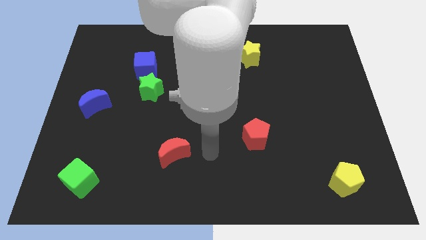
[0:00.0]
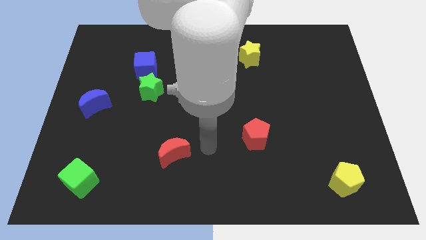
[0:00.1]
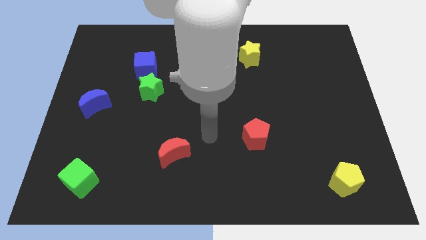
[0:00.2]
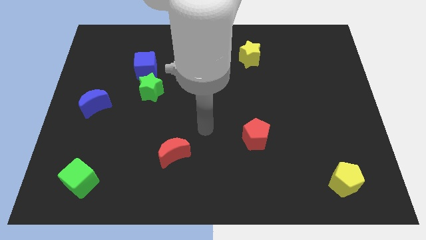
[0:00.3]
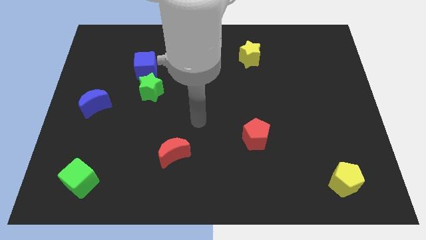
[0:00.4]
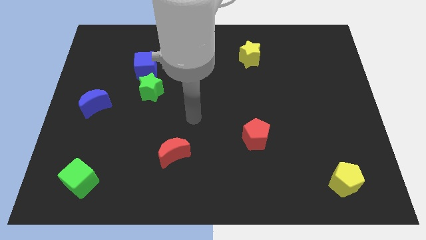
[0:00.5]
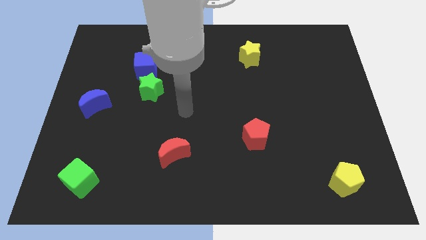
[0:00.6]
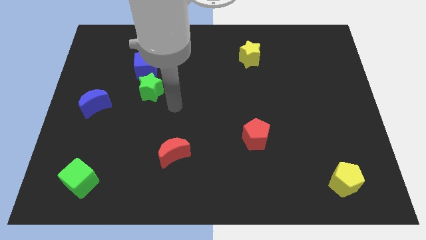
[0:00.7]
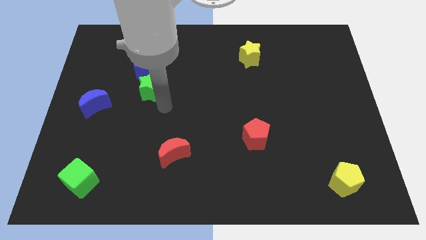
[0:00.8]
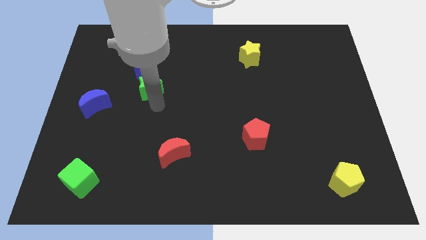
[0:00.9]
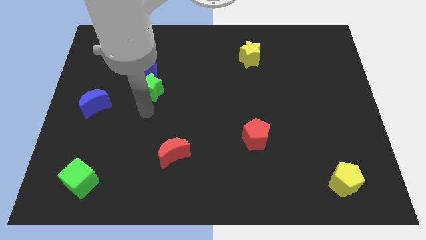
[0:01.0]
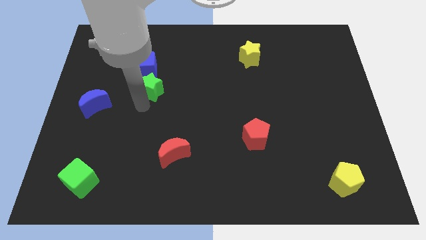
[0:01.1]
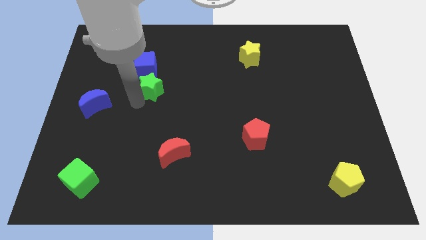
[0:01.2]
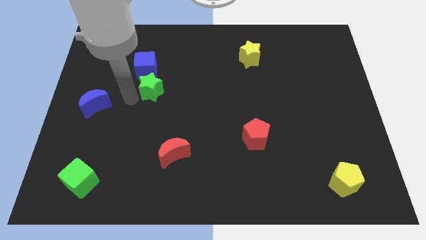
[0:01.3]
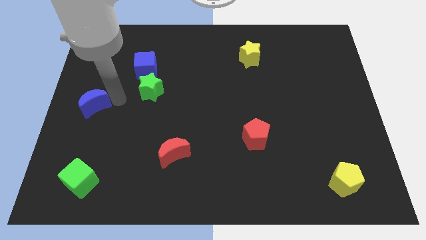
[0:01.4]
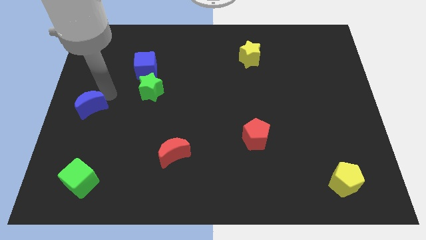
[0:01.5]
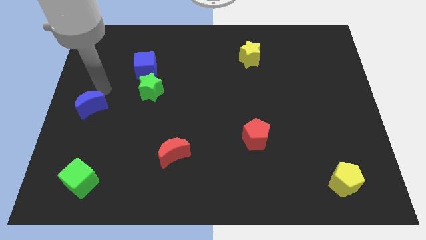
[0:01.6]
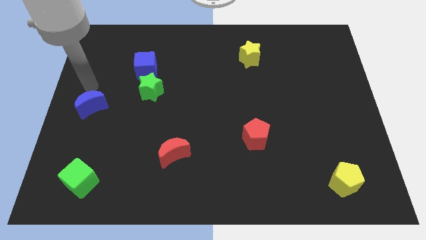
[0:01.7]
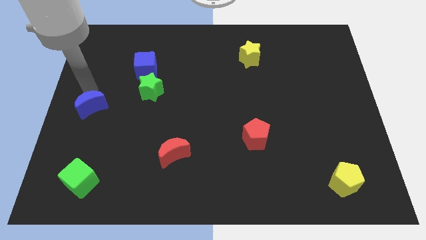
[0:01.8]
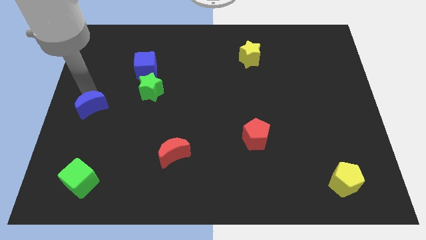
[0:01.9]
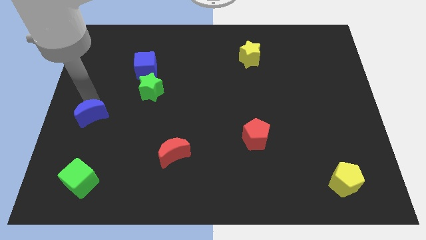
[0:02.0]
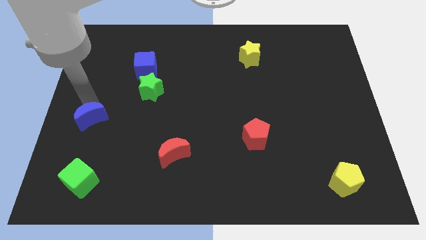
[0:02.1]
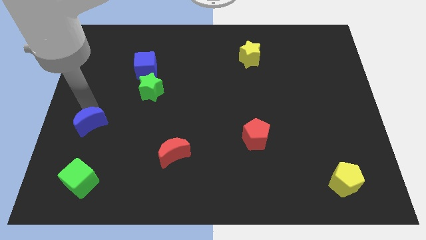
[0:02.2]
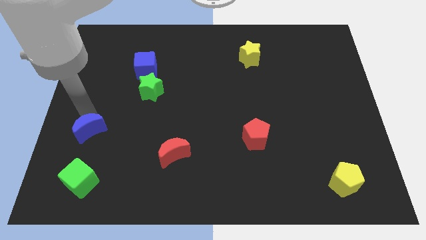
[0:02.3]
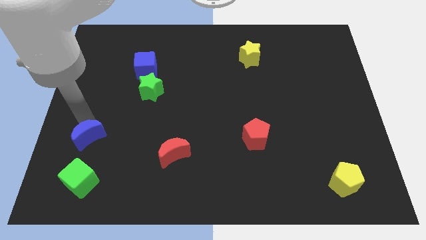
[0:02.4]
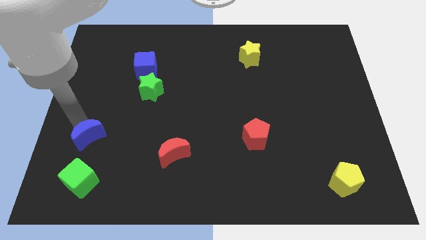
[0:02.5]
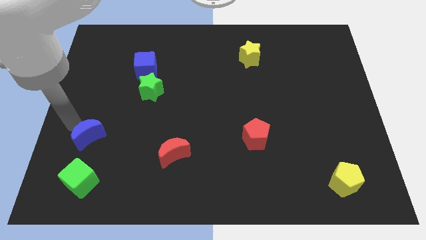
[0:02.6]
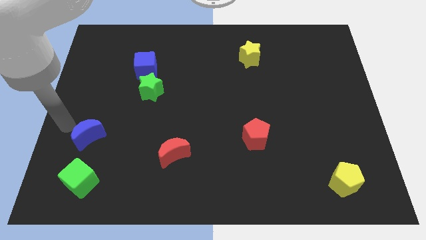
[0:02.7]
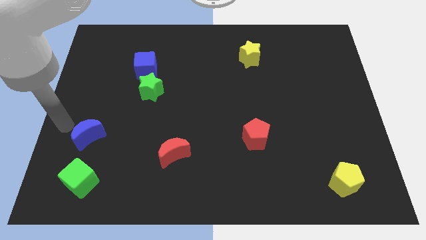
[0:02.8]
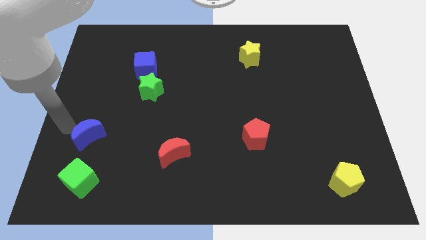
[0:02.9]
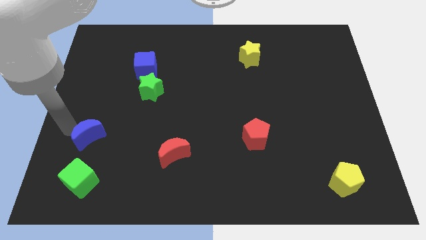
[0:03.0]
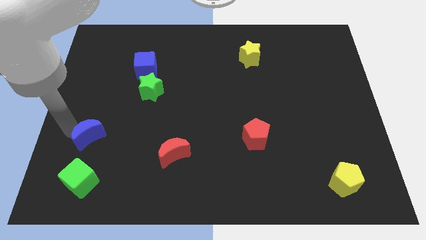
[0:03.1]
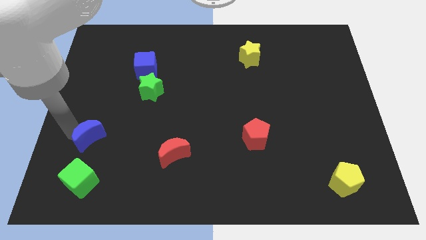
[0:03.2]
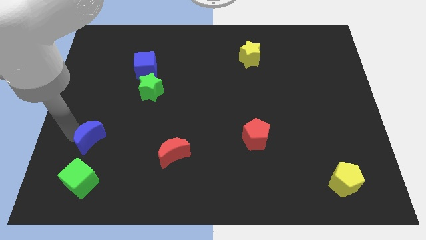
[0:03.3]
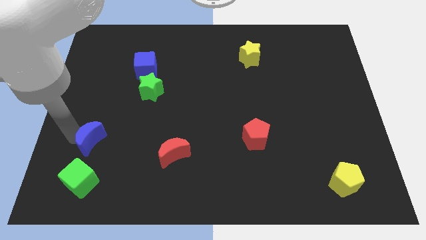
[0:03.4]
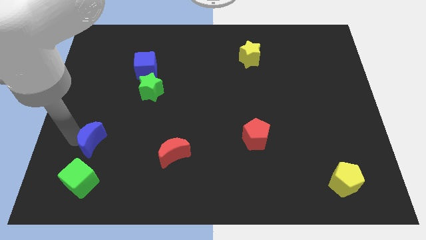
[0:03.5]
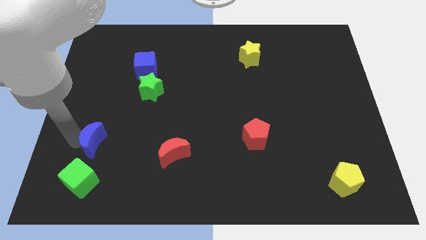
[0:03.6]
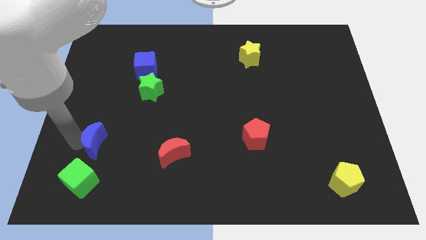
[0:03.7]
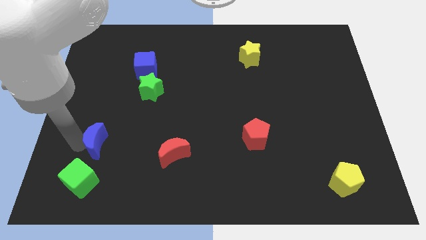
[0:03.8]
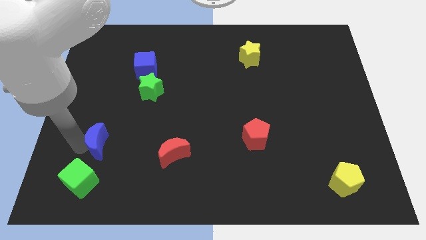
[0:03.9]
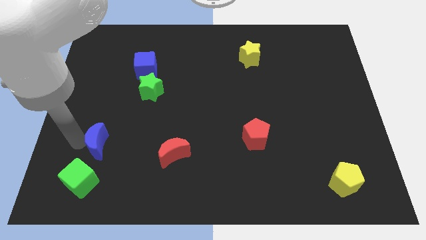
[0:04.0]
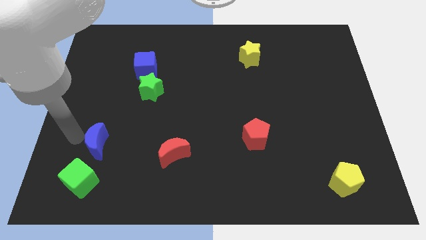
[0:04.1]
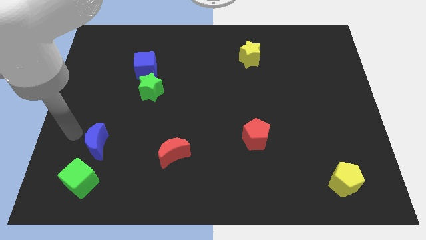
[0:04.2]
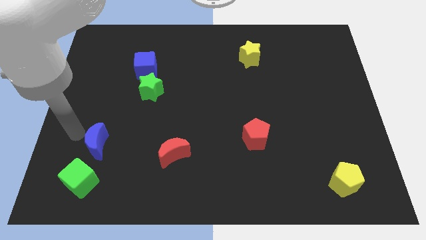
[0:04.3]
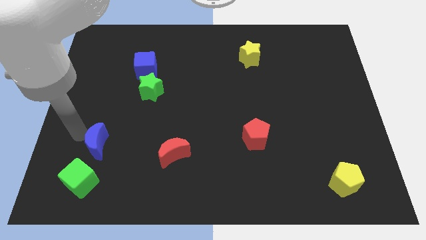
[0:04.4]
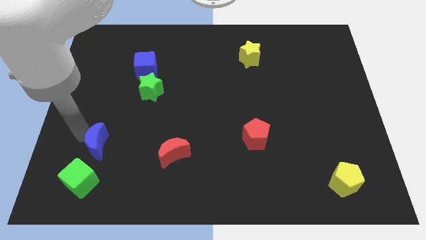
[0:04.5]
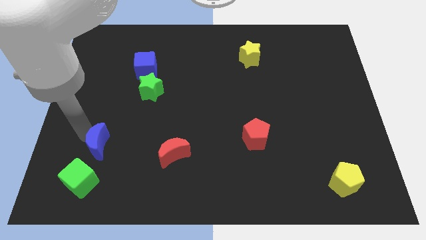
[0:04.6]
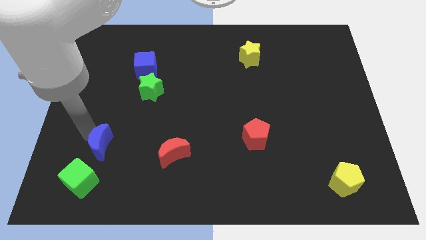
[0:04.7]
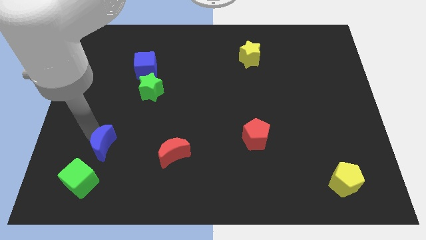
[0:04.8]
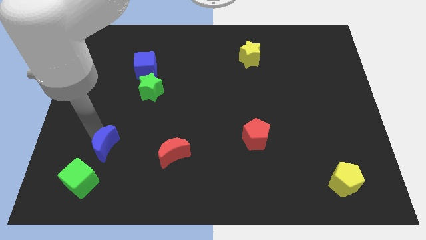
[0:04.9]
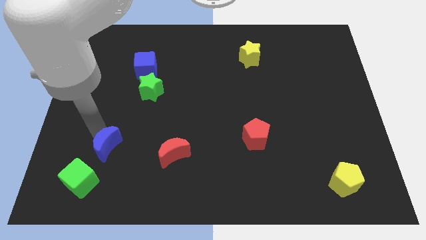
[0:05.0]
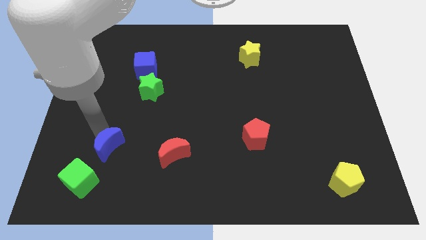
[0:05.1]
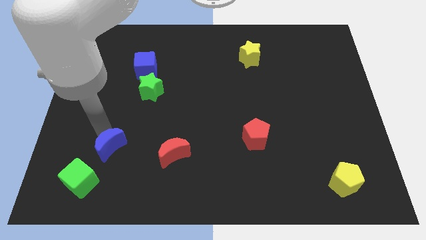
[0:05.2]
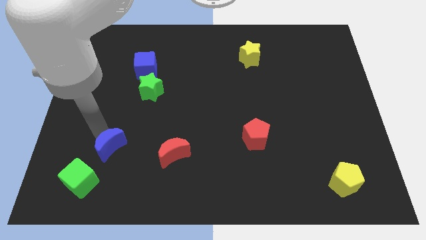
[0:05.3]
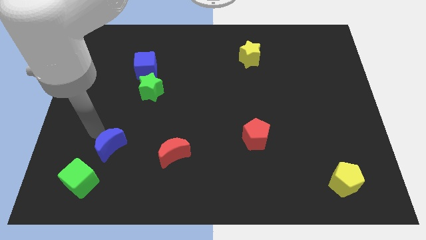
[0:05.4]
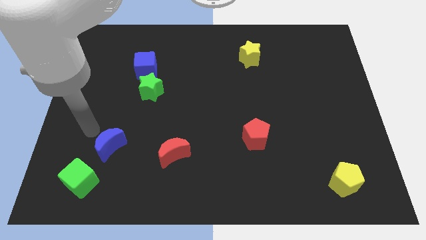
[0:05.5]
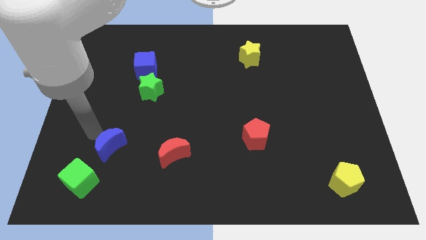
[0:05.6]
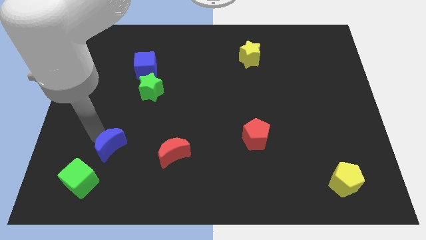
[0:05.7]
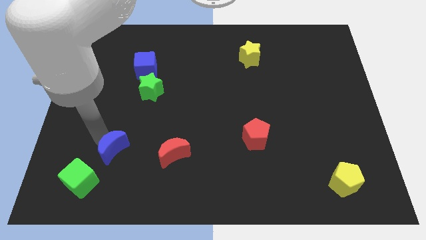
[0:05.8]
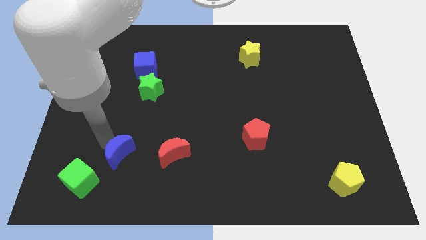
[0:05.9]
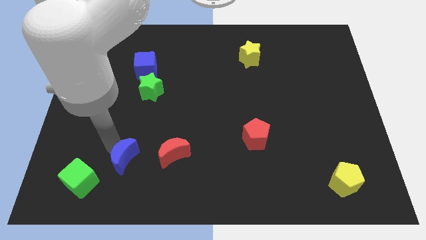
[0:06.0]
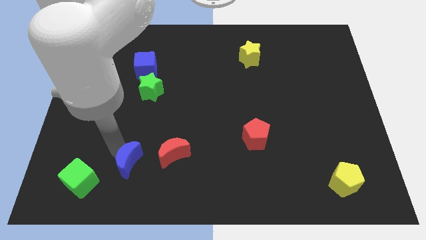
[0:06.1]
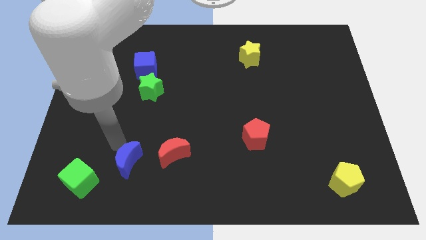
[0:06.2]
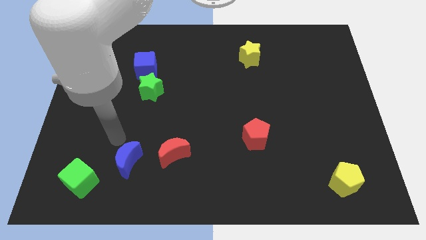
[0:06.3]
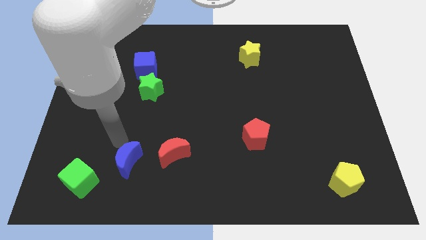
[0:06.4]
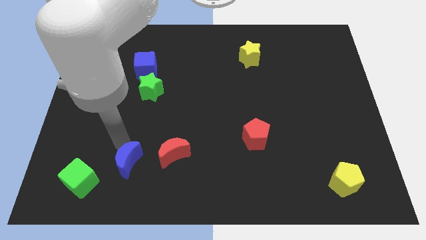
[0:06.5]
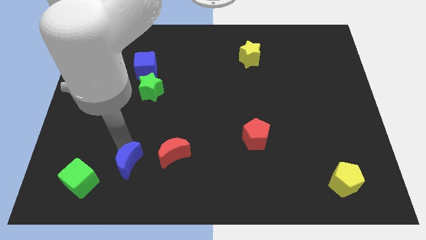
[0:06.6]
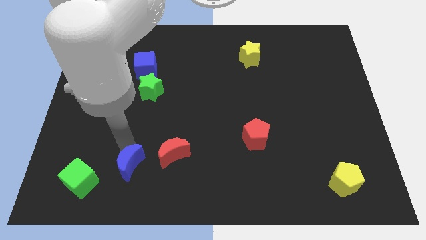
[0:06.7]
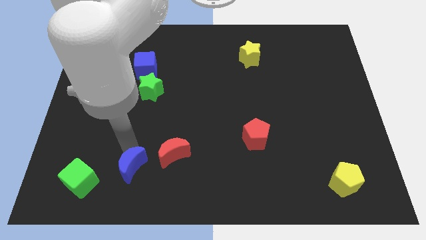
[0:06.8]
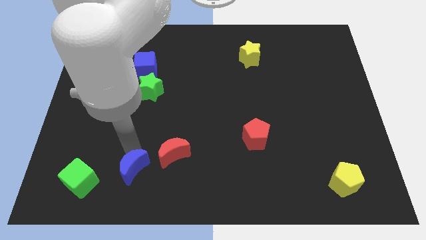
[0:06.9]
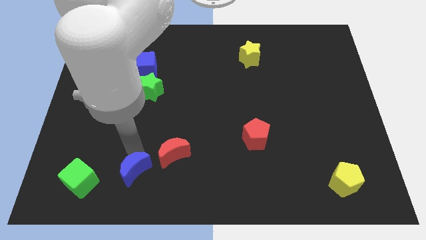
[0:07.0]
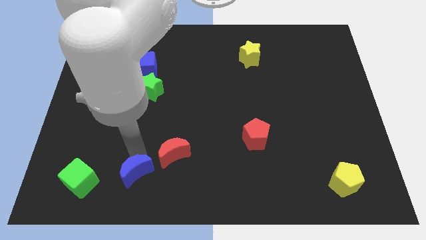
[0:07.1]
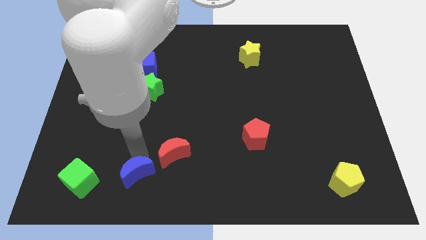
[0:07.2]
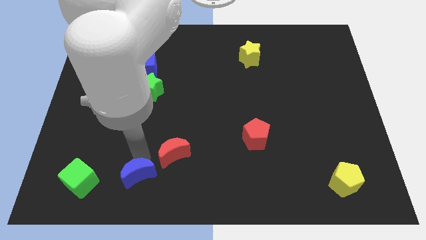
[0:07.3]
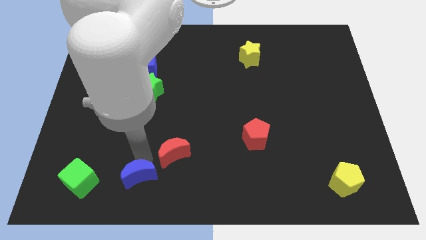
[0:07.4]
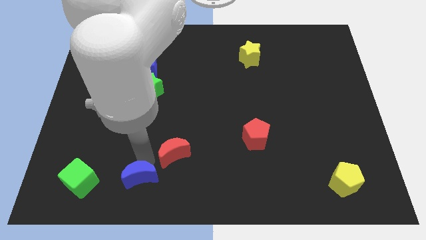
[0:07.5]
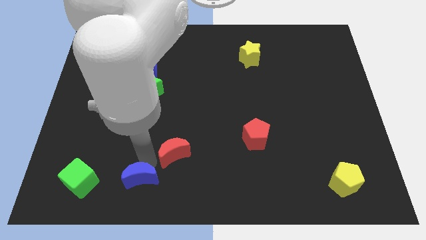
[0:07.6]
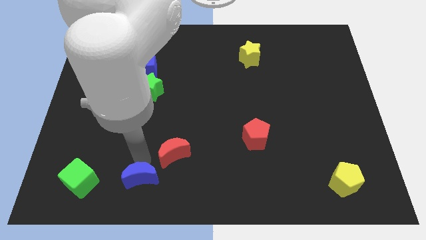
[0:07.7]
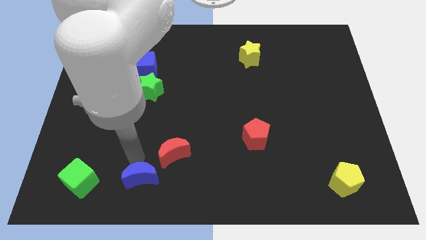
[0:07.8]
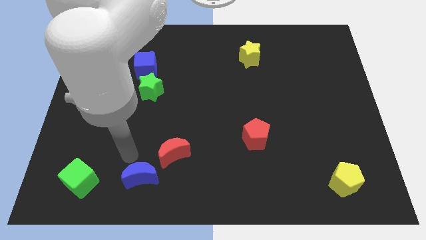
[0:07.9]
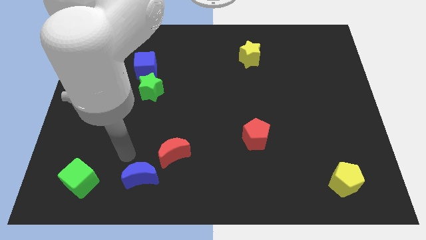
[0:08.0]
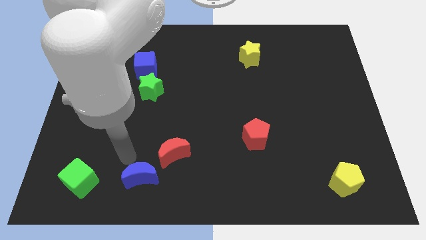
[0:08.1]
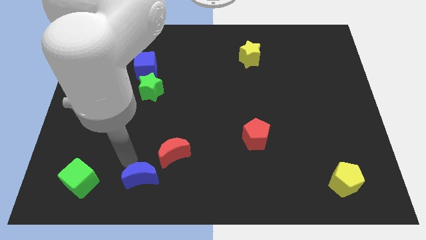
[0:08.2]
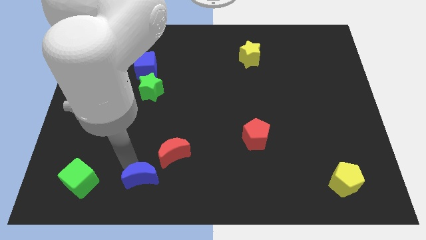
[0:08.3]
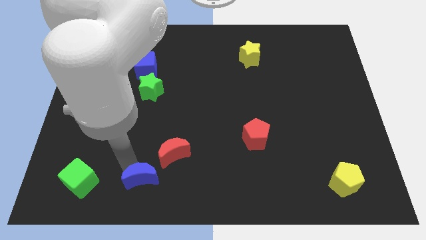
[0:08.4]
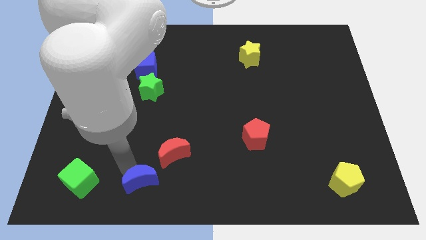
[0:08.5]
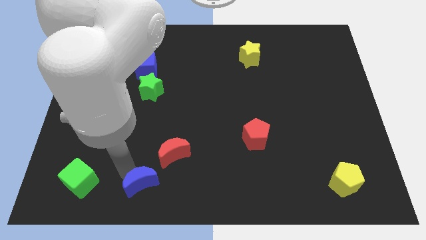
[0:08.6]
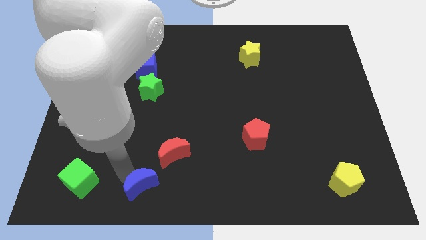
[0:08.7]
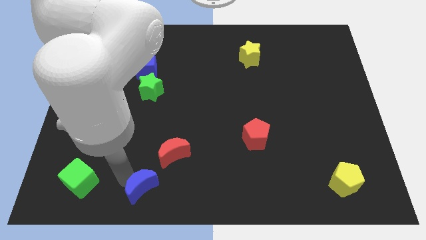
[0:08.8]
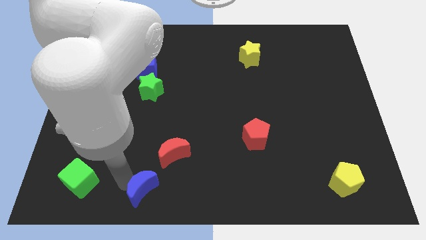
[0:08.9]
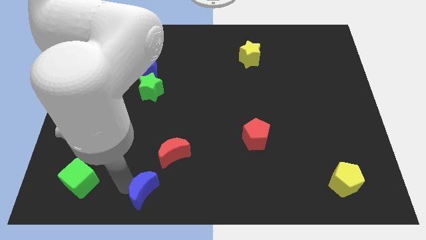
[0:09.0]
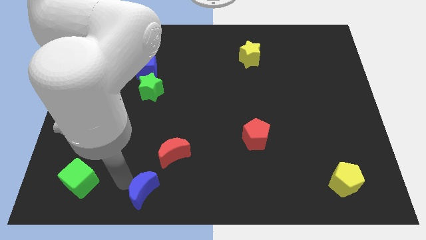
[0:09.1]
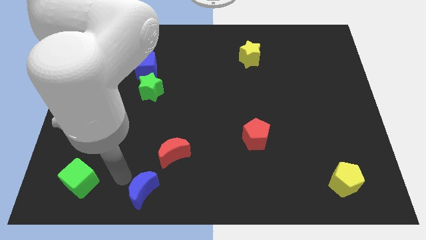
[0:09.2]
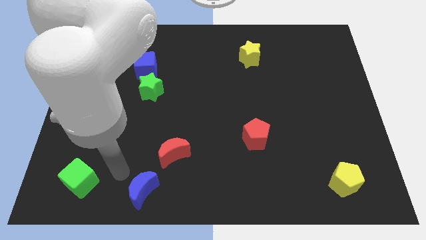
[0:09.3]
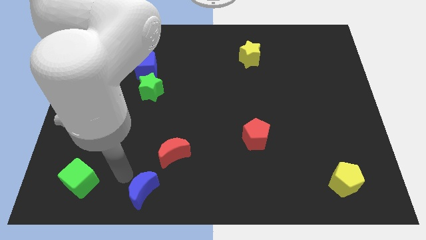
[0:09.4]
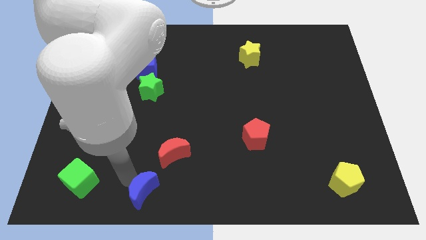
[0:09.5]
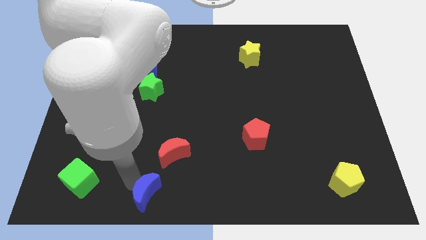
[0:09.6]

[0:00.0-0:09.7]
push the blue moon to the bottom
